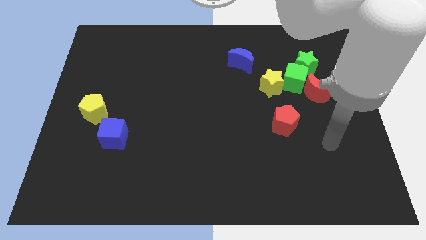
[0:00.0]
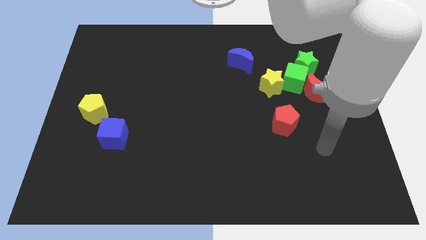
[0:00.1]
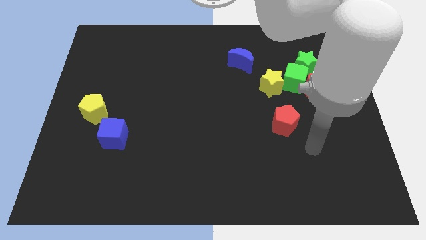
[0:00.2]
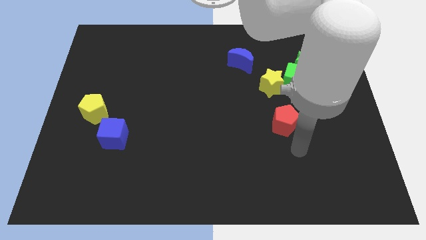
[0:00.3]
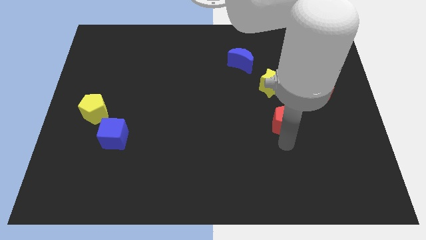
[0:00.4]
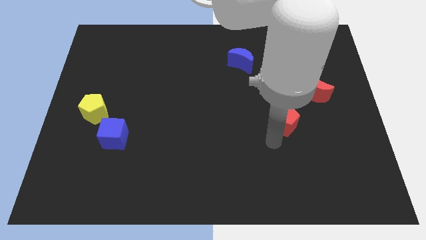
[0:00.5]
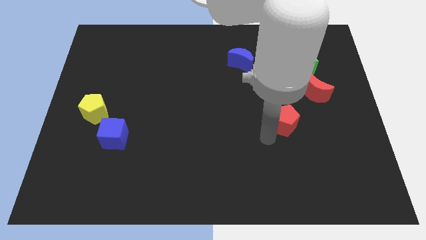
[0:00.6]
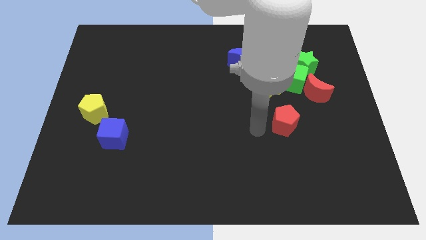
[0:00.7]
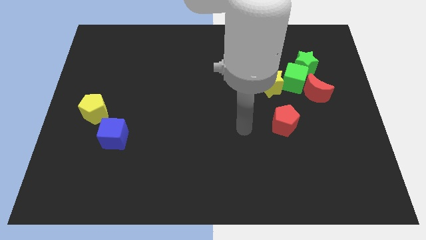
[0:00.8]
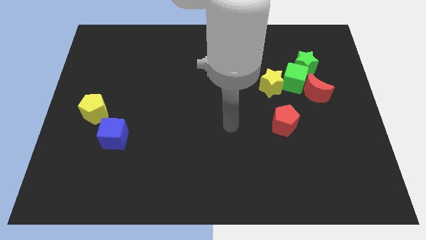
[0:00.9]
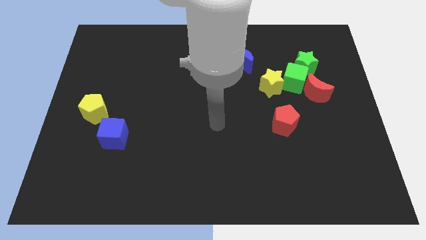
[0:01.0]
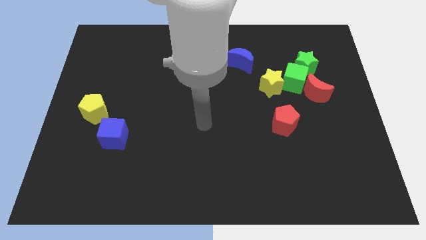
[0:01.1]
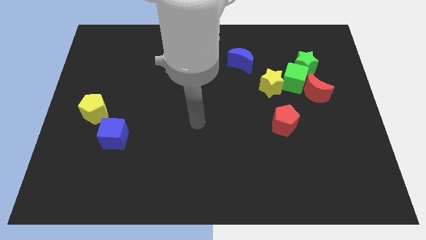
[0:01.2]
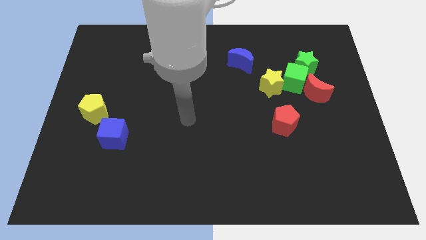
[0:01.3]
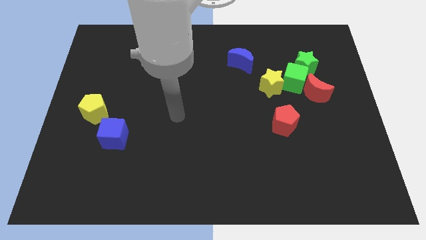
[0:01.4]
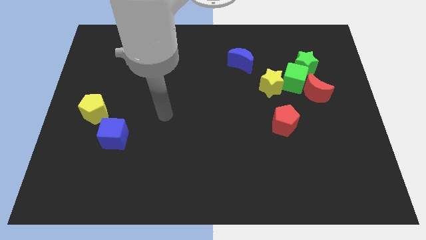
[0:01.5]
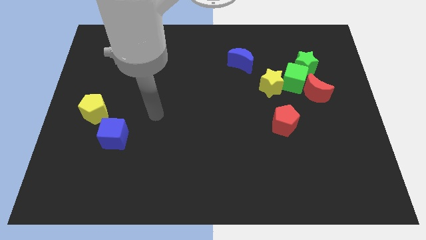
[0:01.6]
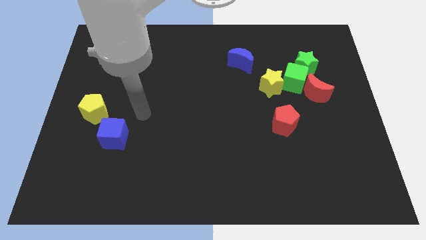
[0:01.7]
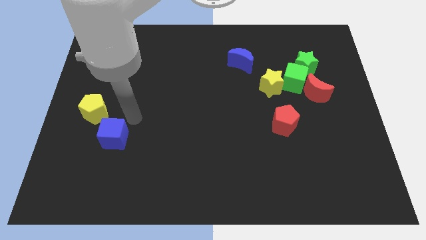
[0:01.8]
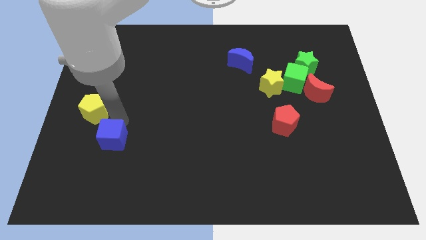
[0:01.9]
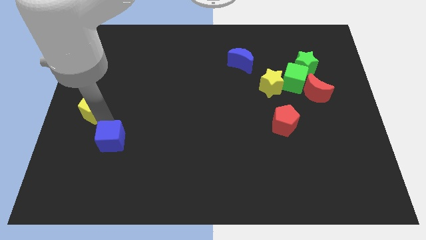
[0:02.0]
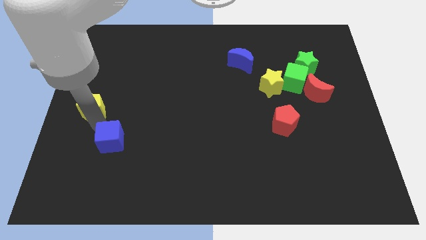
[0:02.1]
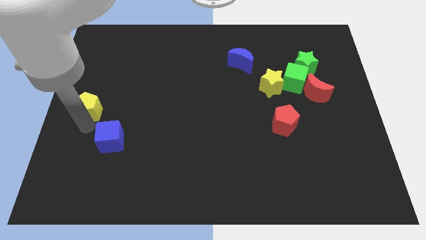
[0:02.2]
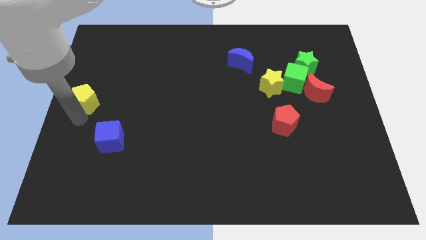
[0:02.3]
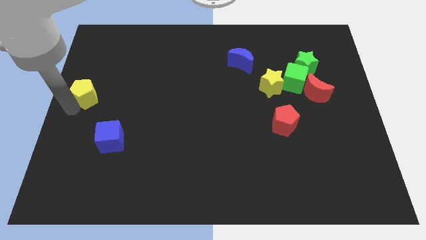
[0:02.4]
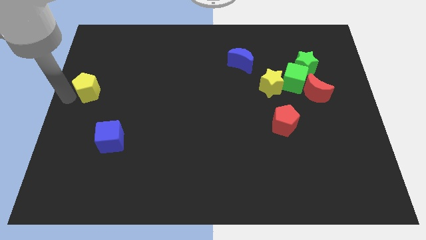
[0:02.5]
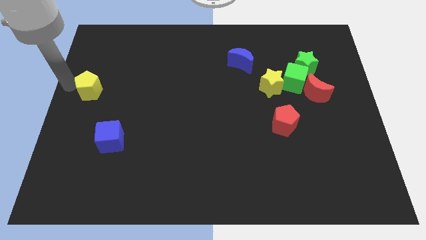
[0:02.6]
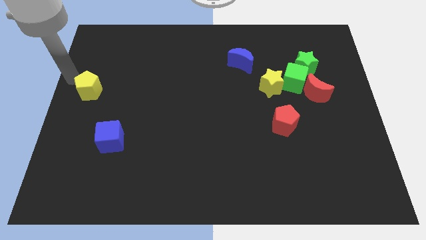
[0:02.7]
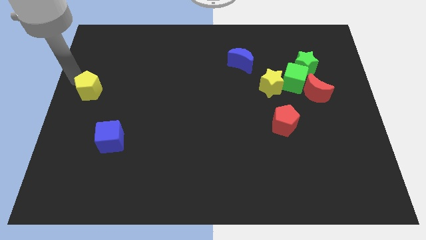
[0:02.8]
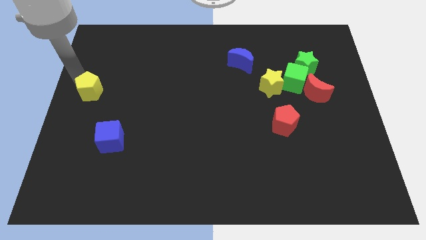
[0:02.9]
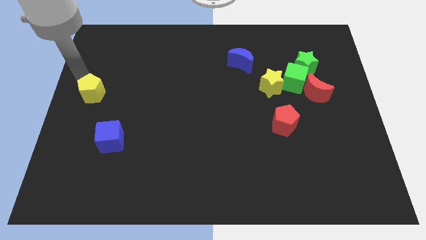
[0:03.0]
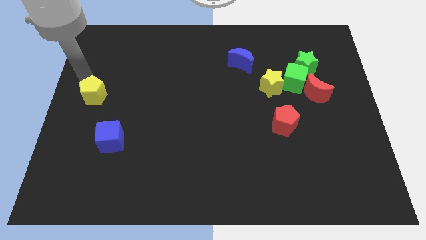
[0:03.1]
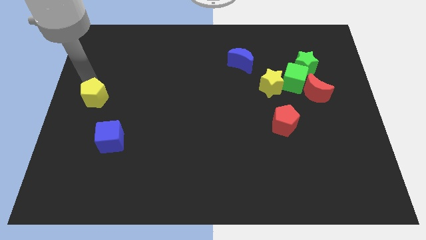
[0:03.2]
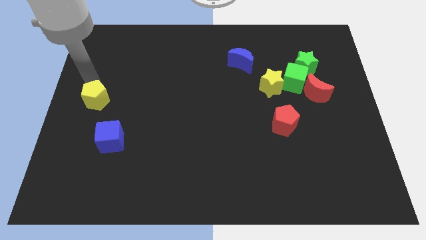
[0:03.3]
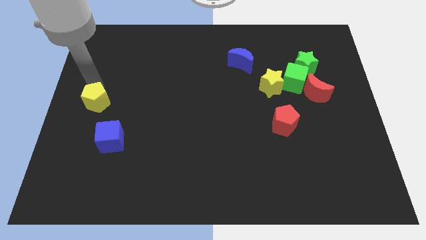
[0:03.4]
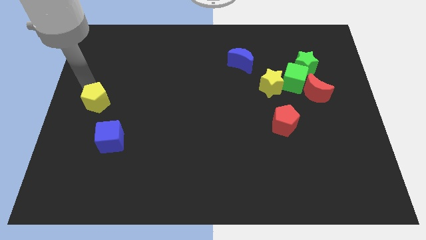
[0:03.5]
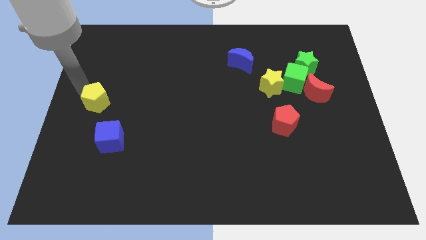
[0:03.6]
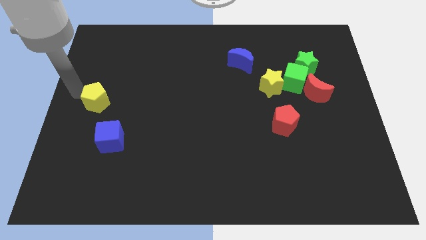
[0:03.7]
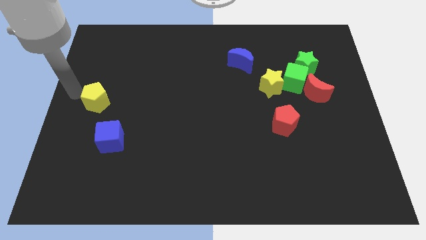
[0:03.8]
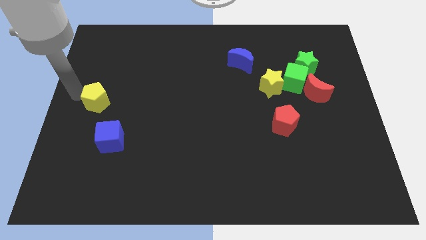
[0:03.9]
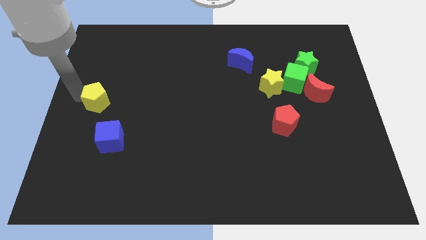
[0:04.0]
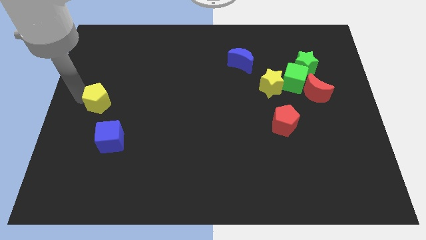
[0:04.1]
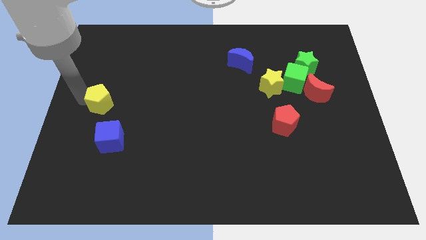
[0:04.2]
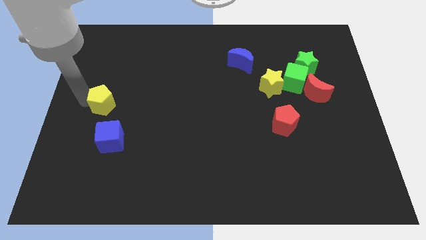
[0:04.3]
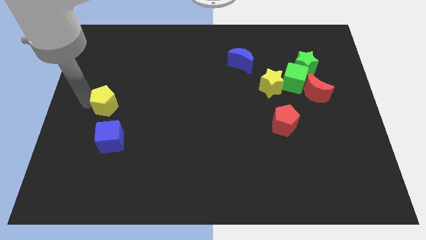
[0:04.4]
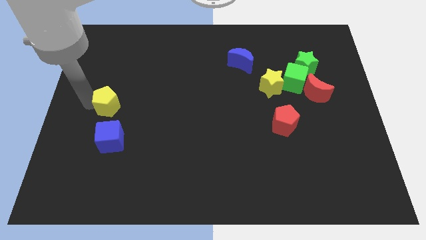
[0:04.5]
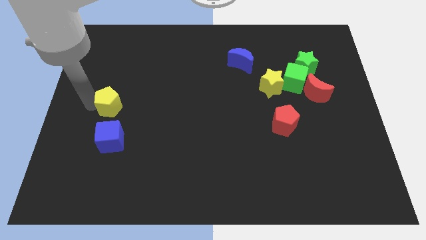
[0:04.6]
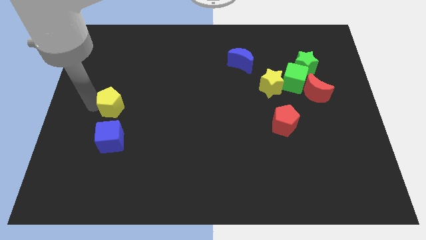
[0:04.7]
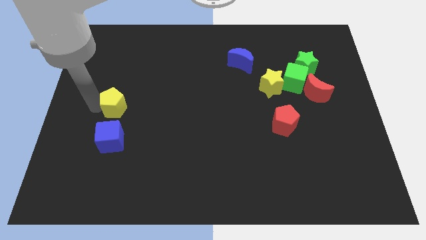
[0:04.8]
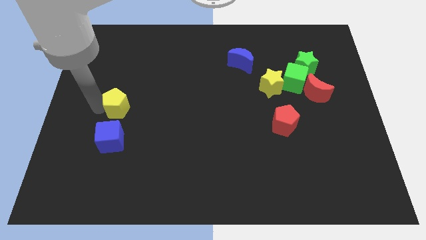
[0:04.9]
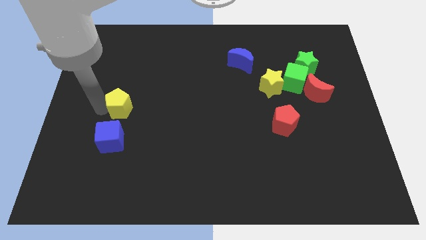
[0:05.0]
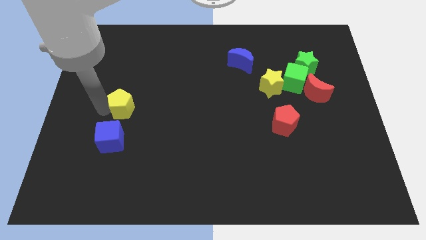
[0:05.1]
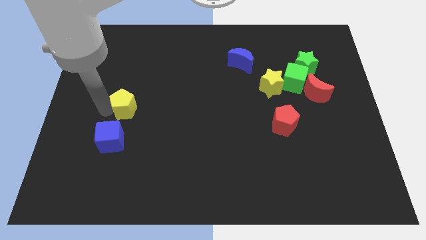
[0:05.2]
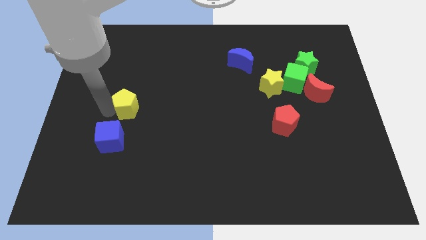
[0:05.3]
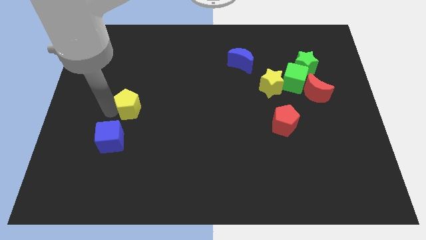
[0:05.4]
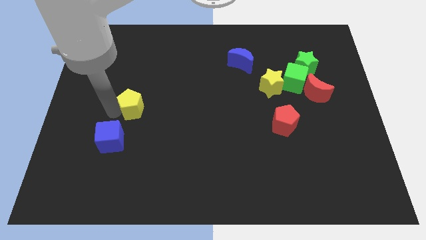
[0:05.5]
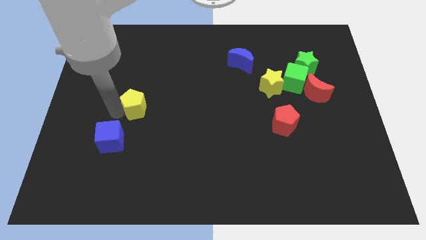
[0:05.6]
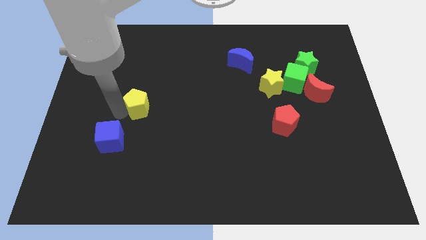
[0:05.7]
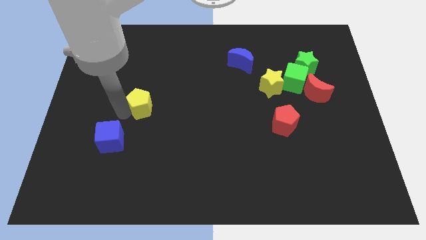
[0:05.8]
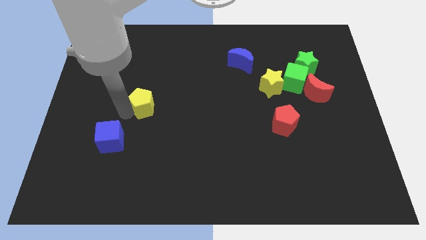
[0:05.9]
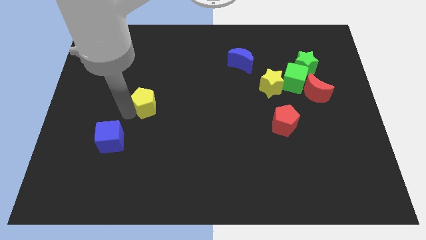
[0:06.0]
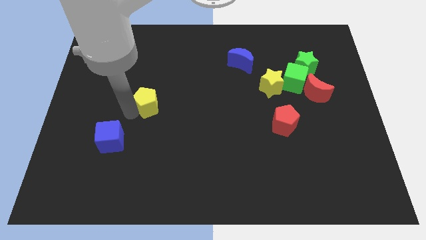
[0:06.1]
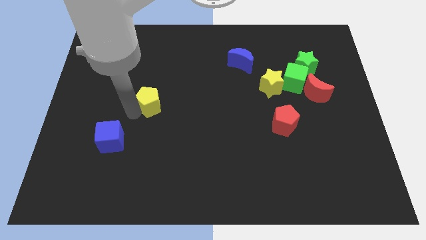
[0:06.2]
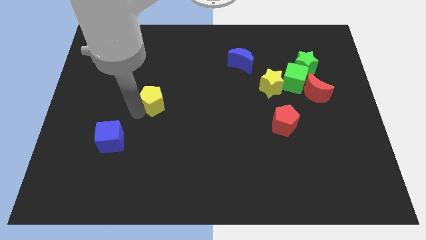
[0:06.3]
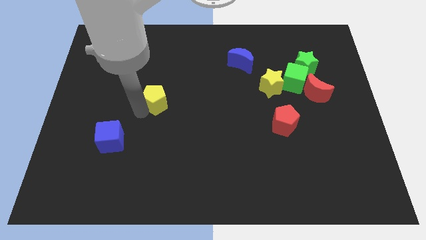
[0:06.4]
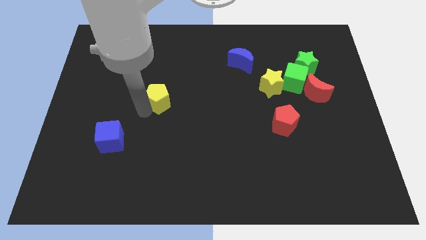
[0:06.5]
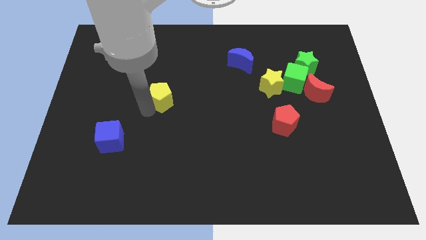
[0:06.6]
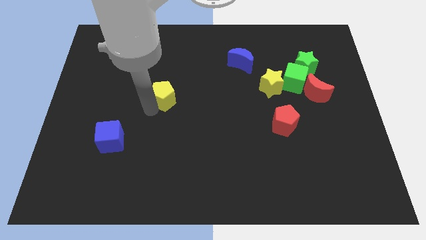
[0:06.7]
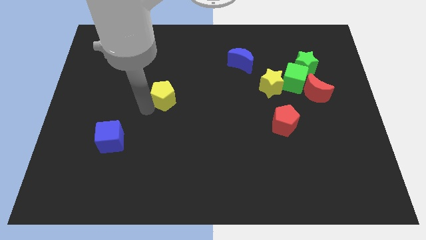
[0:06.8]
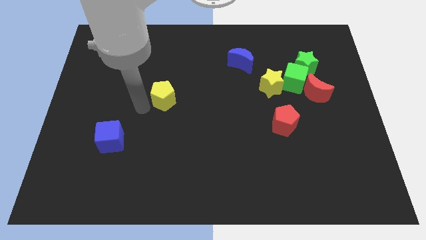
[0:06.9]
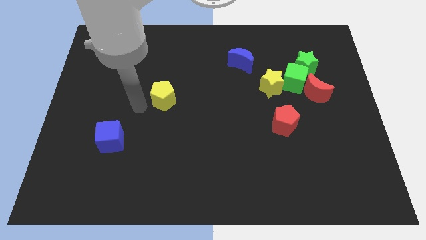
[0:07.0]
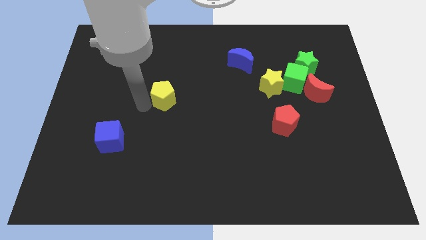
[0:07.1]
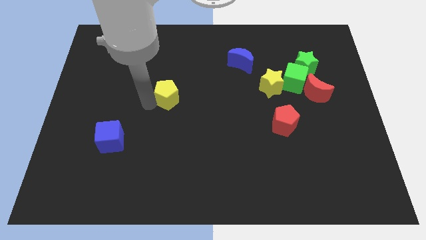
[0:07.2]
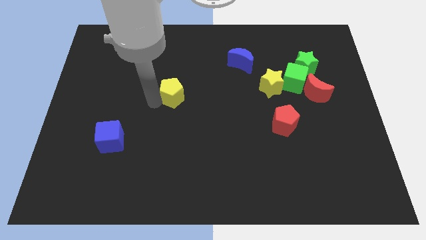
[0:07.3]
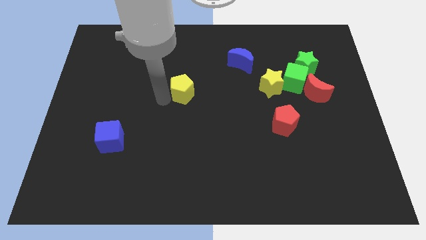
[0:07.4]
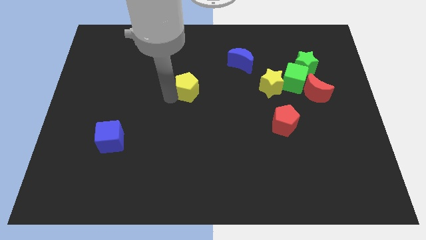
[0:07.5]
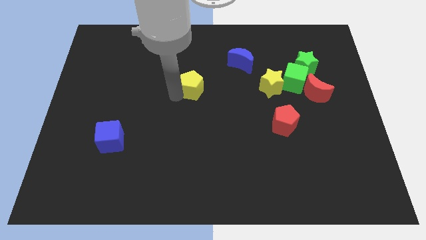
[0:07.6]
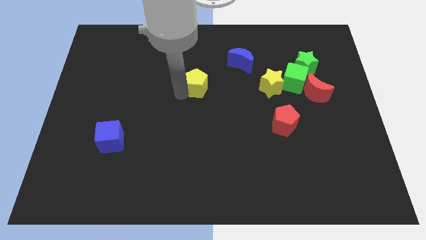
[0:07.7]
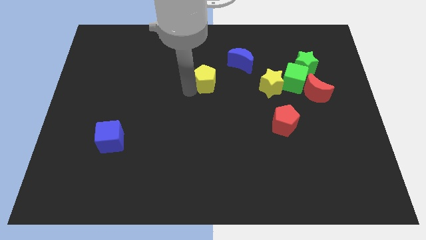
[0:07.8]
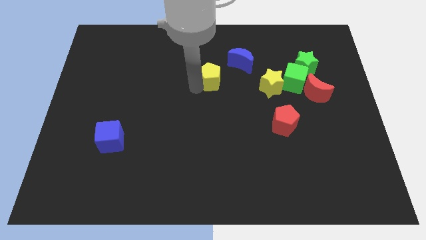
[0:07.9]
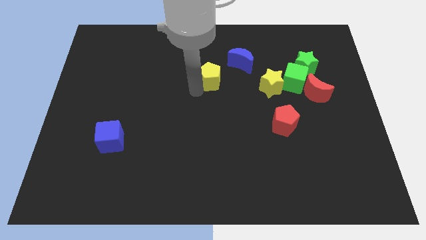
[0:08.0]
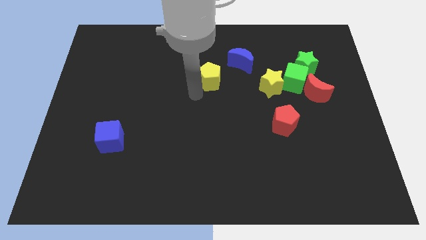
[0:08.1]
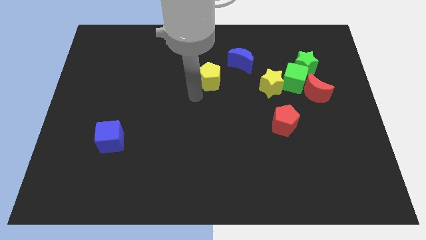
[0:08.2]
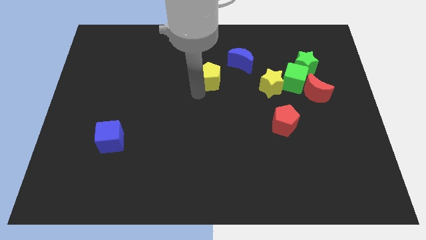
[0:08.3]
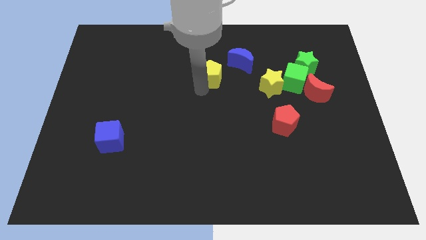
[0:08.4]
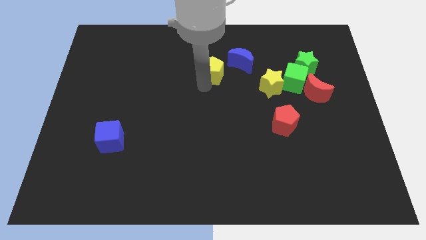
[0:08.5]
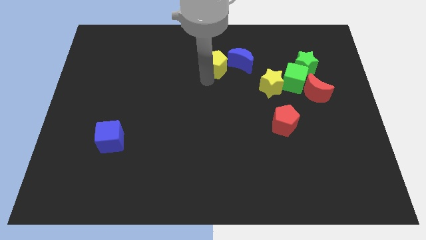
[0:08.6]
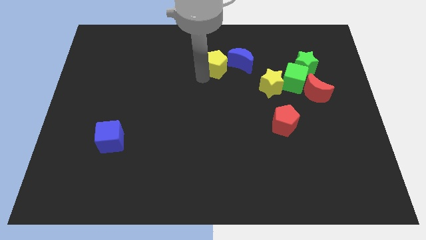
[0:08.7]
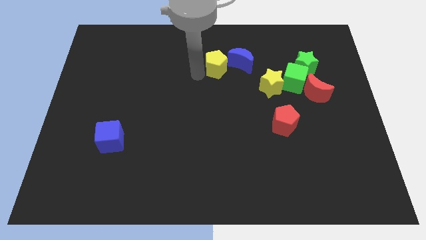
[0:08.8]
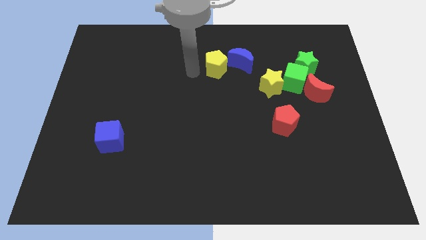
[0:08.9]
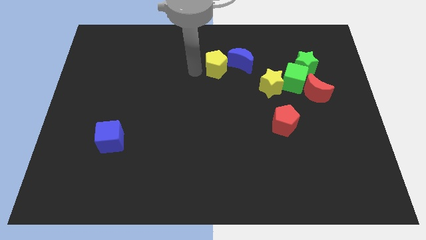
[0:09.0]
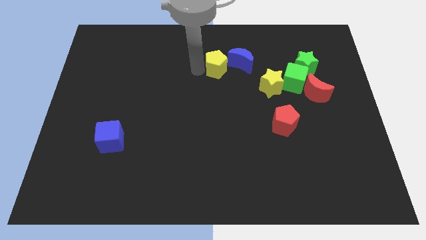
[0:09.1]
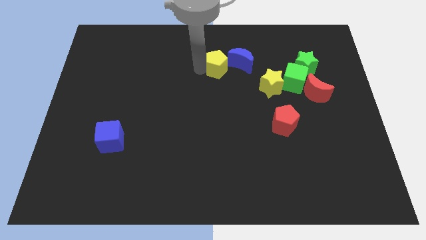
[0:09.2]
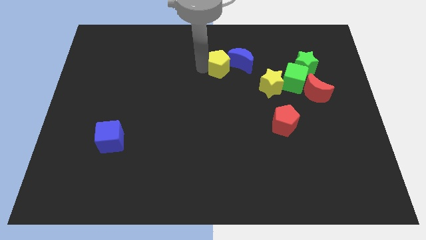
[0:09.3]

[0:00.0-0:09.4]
put the yellow pentagon towards the blue moon
